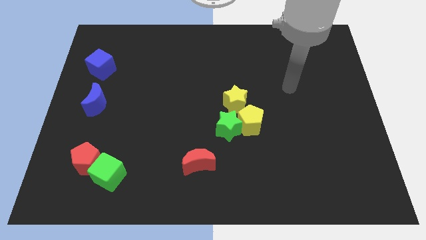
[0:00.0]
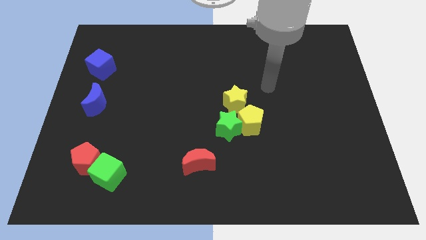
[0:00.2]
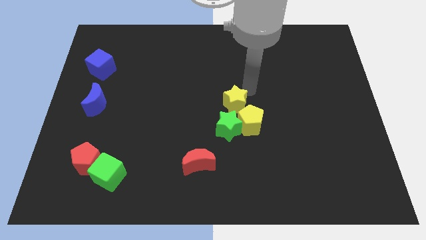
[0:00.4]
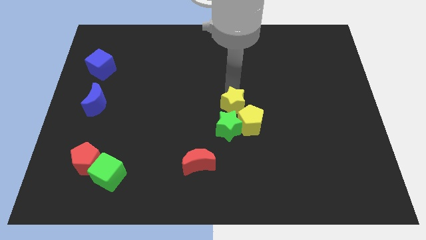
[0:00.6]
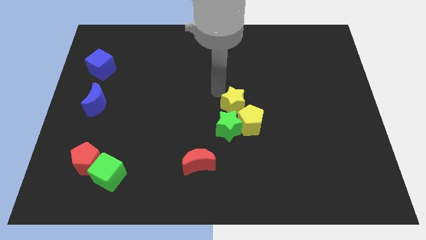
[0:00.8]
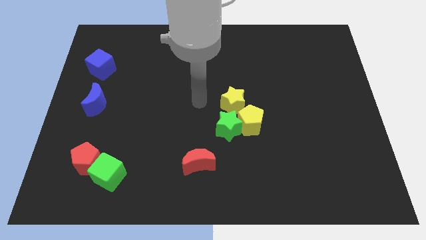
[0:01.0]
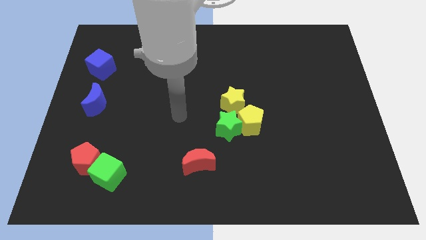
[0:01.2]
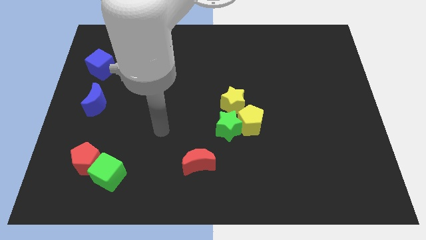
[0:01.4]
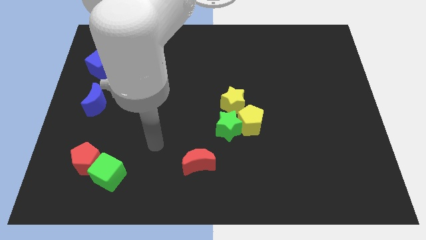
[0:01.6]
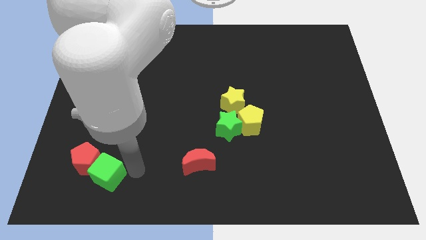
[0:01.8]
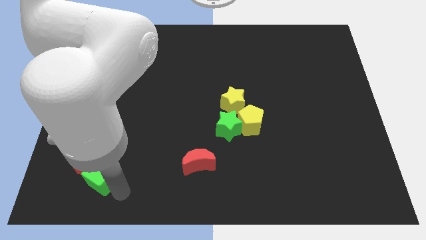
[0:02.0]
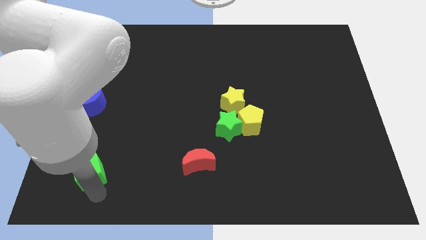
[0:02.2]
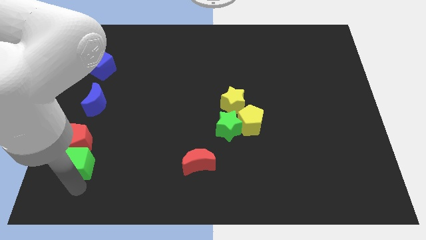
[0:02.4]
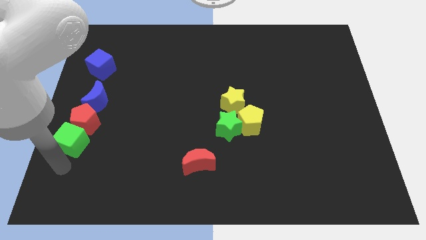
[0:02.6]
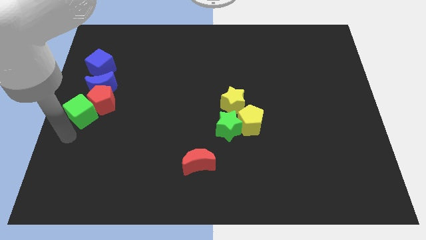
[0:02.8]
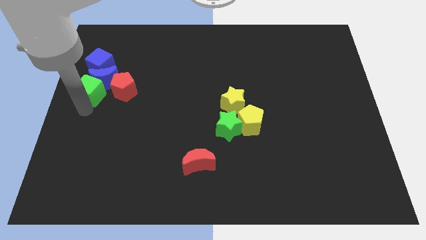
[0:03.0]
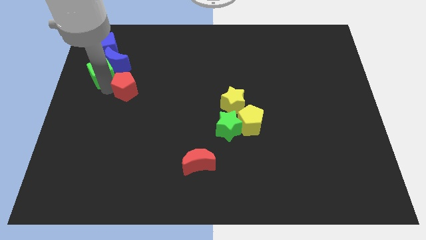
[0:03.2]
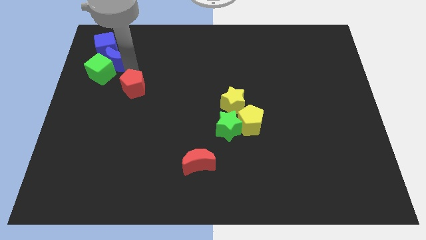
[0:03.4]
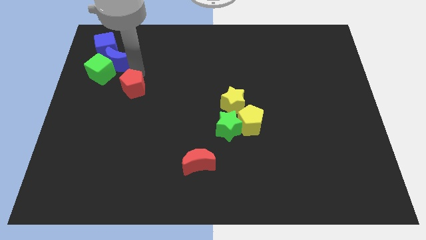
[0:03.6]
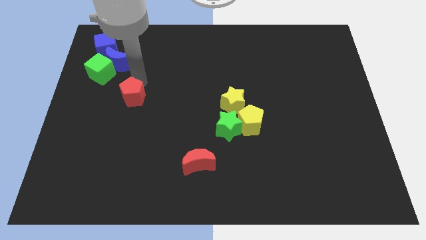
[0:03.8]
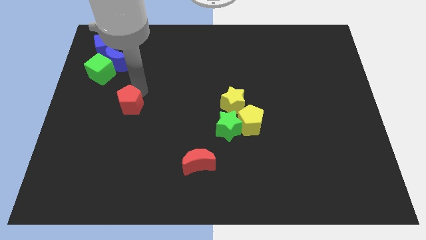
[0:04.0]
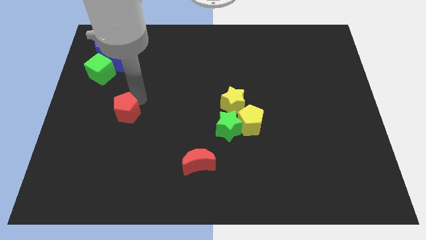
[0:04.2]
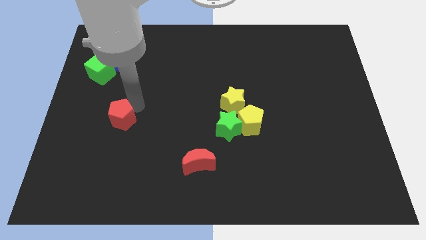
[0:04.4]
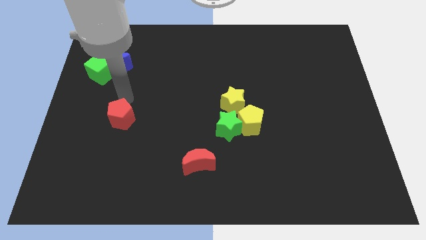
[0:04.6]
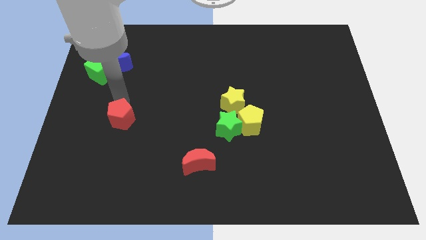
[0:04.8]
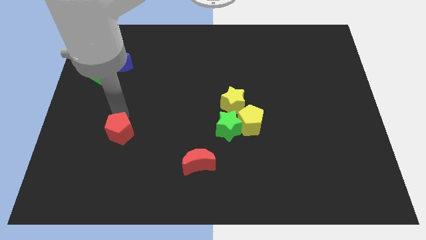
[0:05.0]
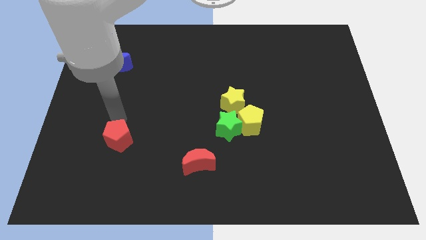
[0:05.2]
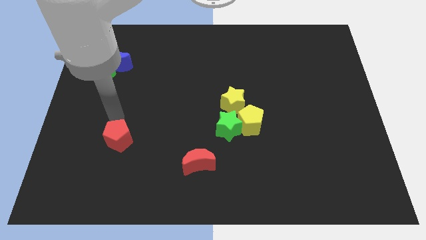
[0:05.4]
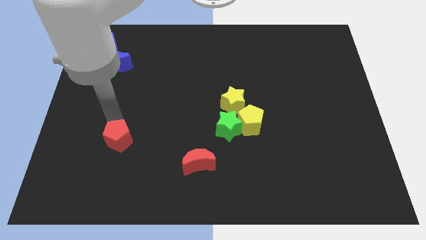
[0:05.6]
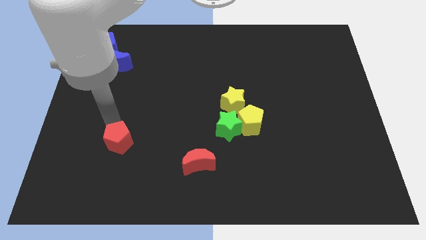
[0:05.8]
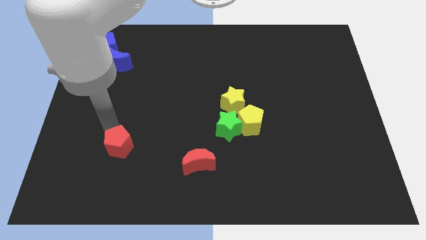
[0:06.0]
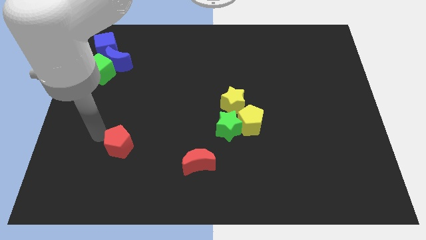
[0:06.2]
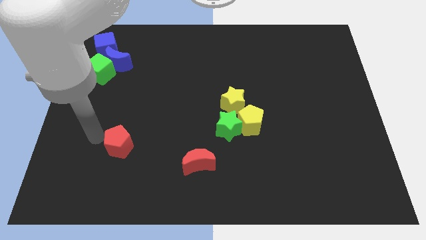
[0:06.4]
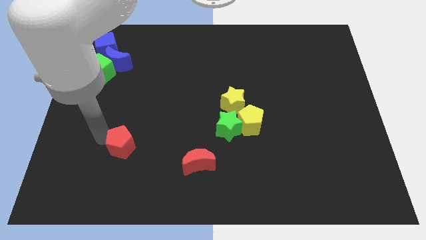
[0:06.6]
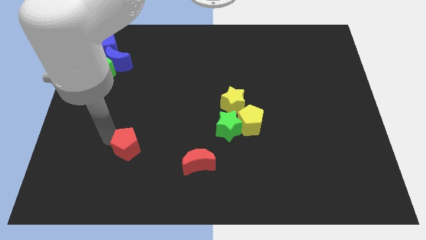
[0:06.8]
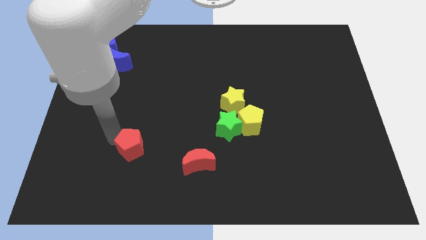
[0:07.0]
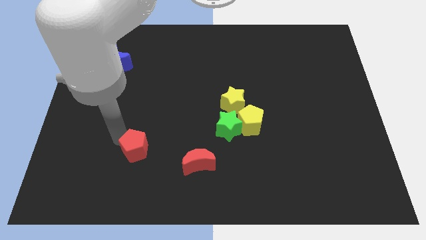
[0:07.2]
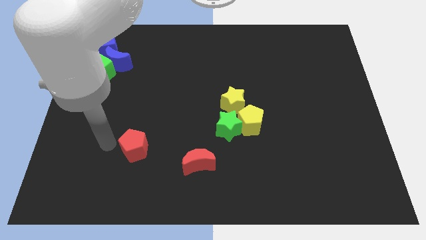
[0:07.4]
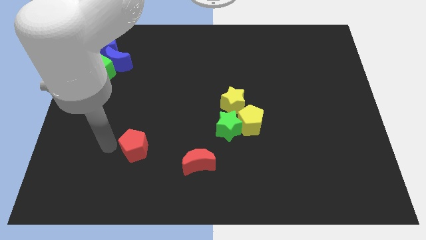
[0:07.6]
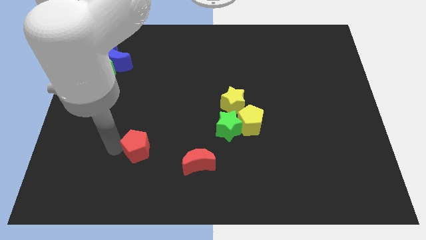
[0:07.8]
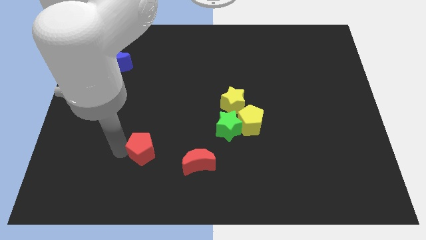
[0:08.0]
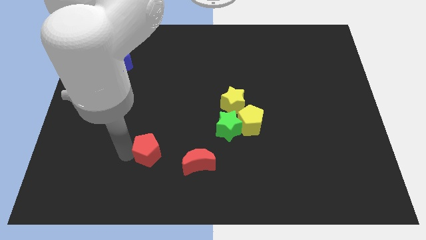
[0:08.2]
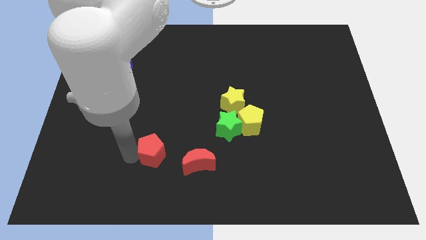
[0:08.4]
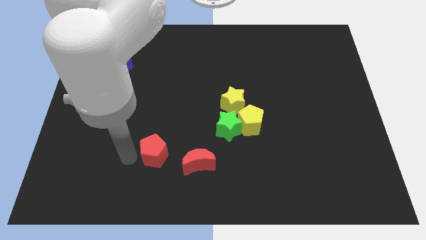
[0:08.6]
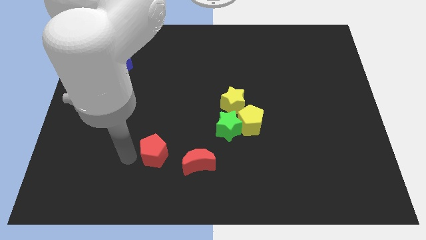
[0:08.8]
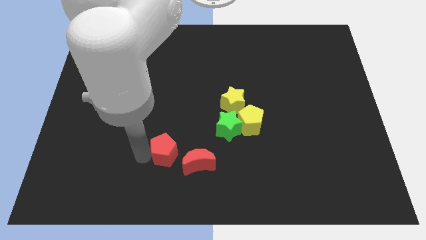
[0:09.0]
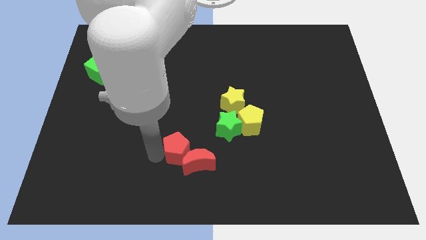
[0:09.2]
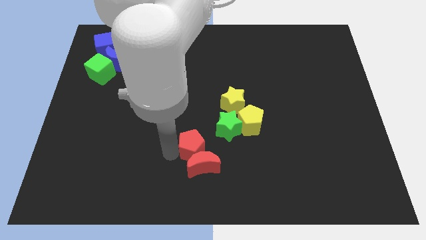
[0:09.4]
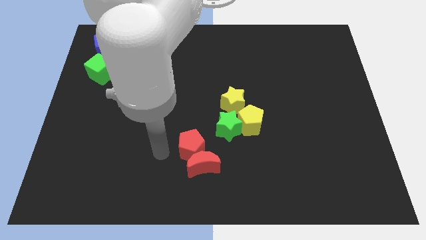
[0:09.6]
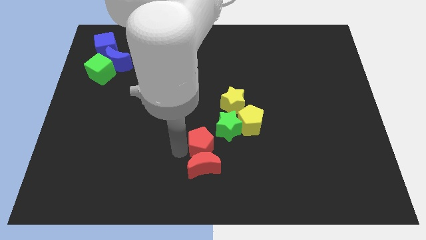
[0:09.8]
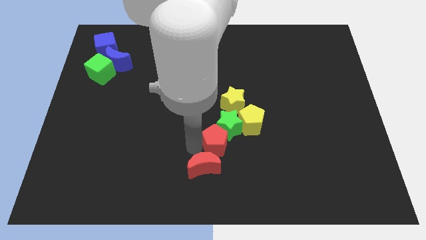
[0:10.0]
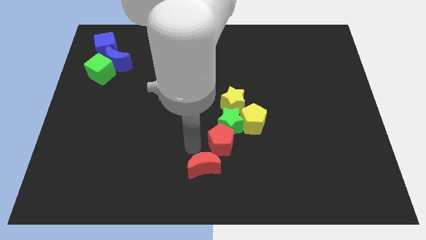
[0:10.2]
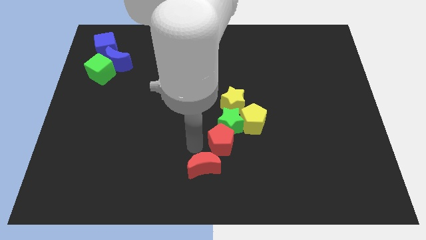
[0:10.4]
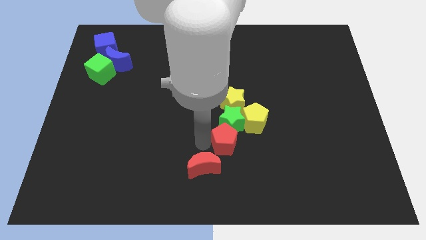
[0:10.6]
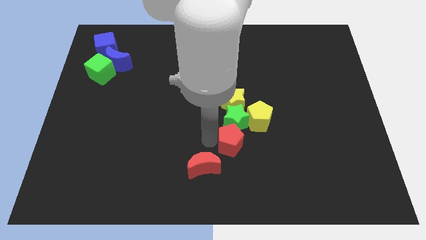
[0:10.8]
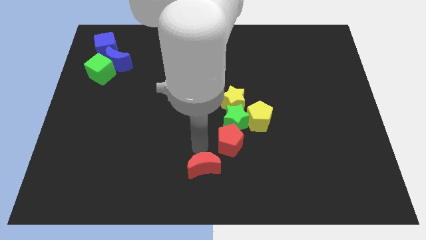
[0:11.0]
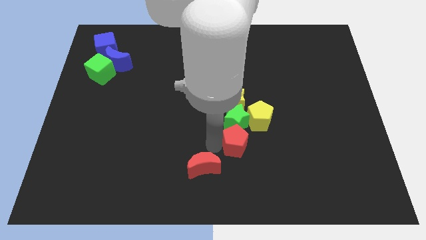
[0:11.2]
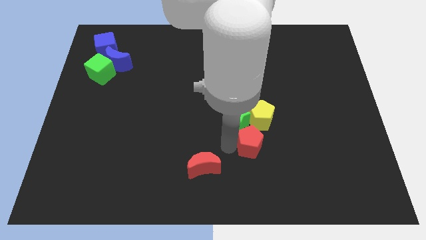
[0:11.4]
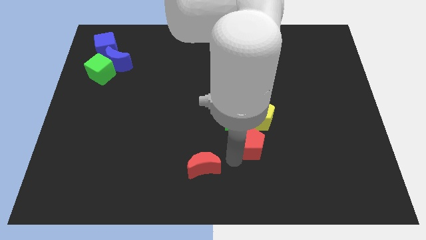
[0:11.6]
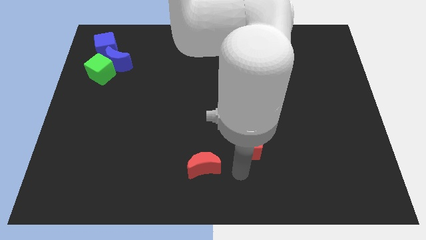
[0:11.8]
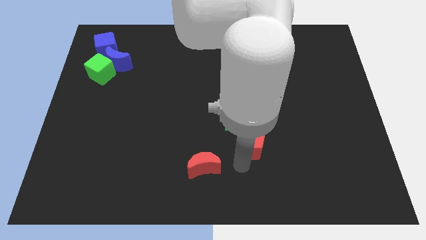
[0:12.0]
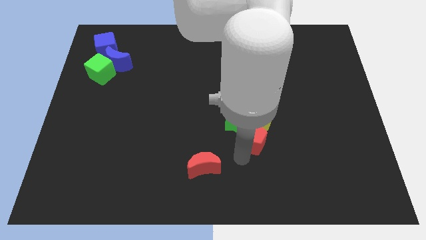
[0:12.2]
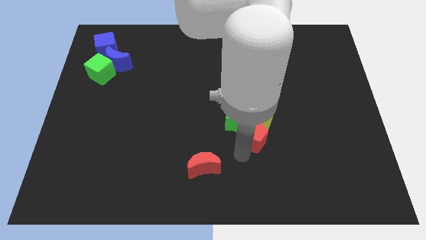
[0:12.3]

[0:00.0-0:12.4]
put the red pentagon to the yellow pentagon

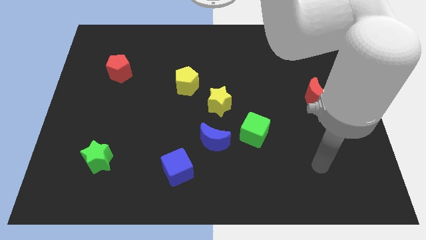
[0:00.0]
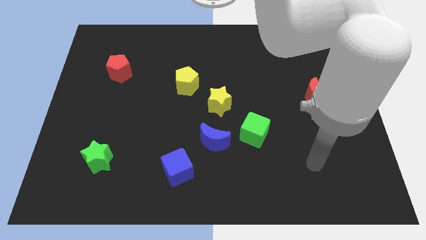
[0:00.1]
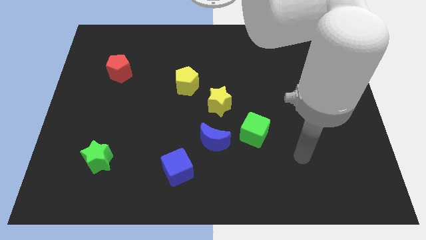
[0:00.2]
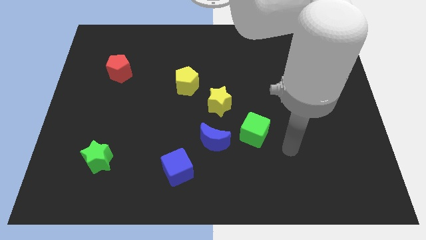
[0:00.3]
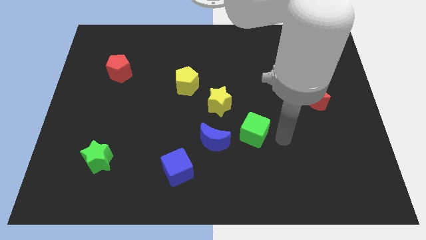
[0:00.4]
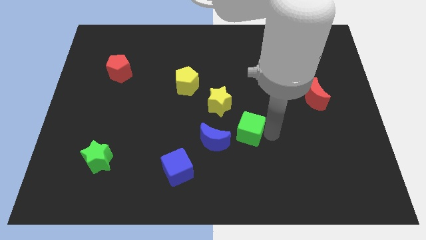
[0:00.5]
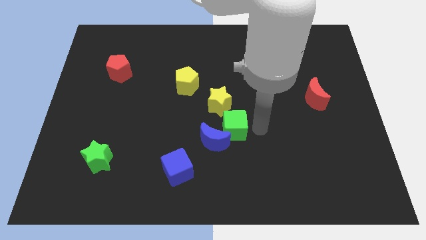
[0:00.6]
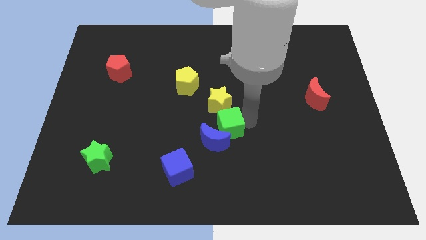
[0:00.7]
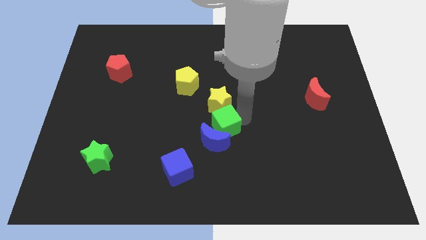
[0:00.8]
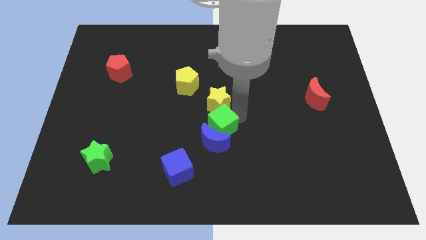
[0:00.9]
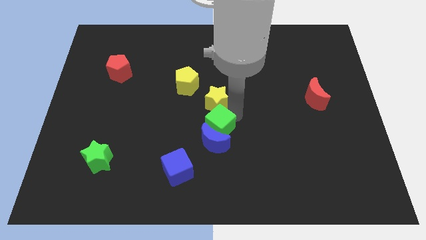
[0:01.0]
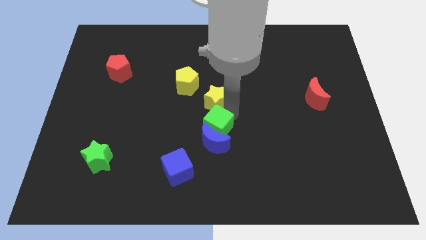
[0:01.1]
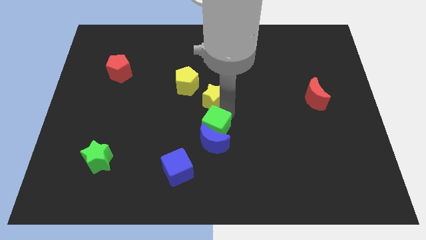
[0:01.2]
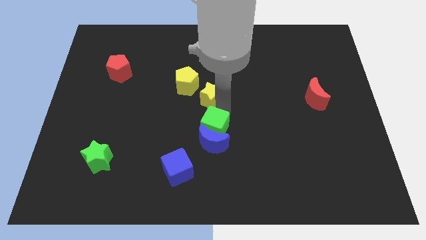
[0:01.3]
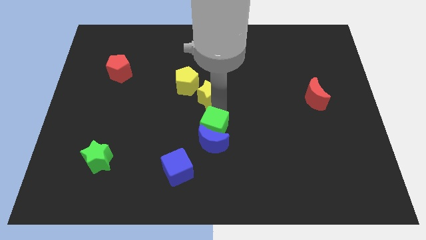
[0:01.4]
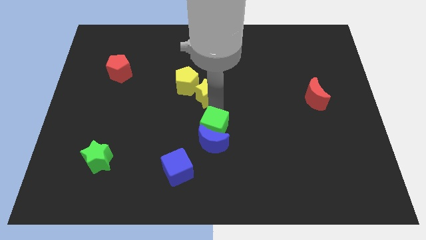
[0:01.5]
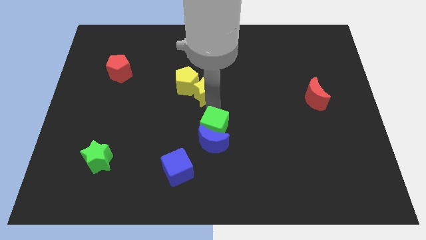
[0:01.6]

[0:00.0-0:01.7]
slide the yellow star to the yellow pentagon

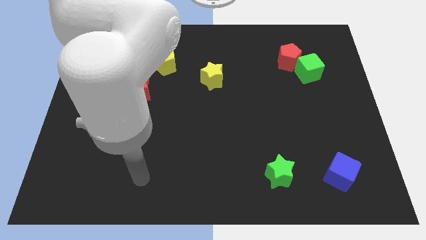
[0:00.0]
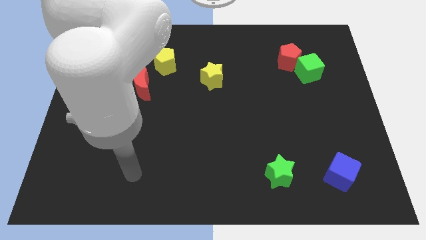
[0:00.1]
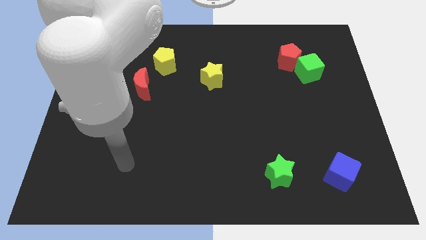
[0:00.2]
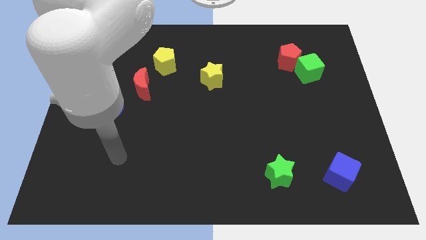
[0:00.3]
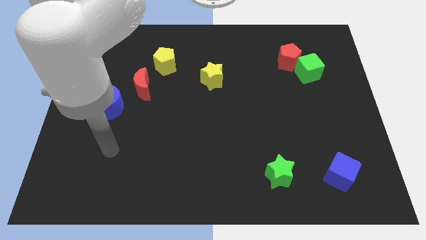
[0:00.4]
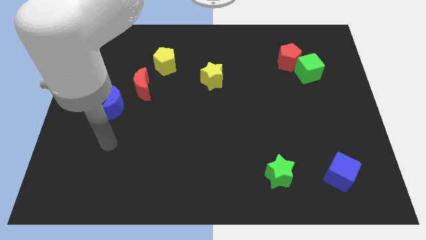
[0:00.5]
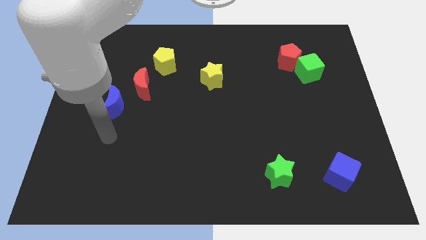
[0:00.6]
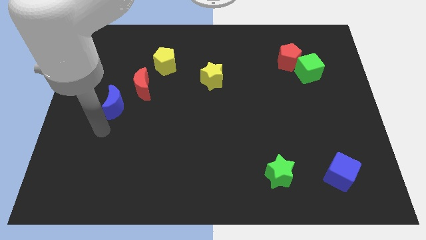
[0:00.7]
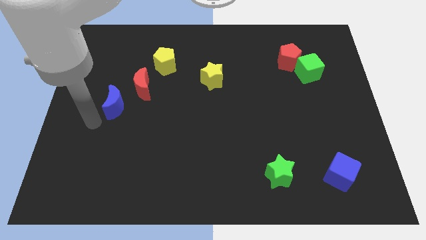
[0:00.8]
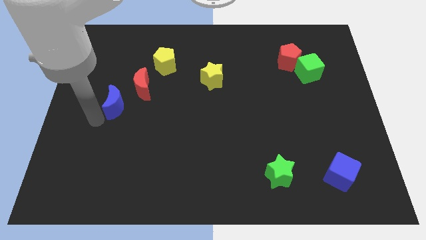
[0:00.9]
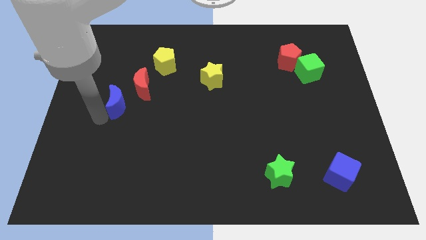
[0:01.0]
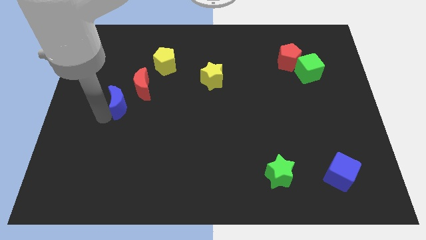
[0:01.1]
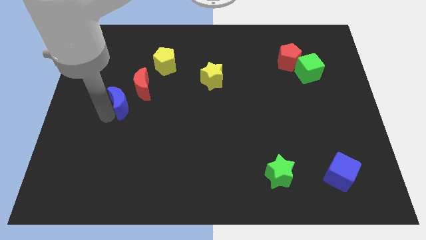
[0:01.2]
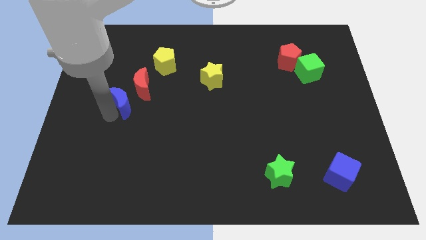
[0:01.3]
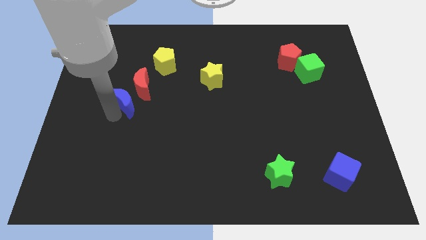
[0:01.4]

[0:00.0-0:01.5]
push the blue moon next to the red moon
